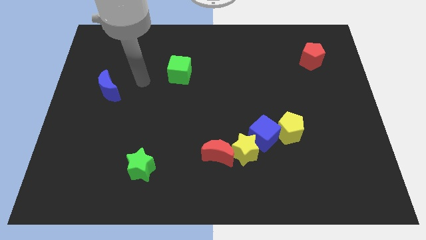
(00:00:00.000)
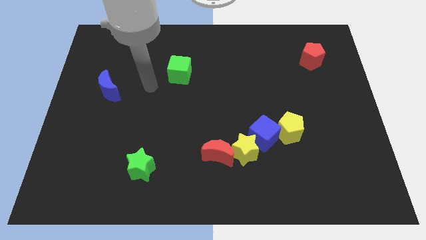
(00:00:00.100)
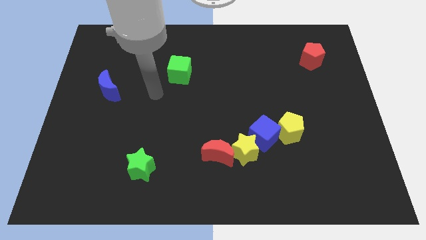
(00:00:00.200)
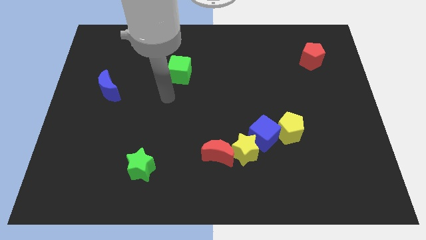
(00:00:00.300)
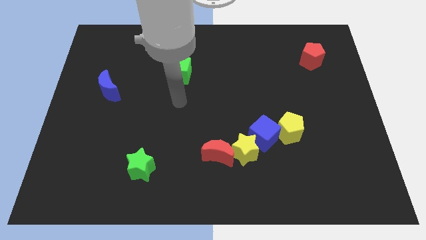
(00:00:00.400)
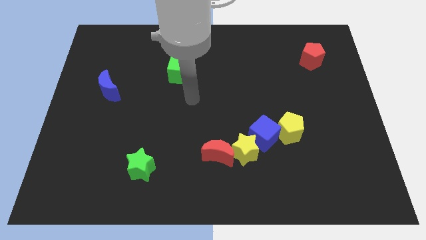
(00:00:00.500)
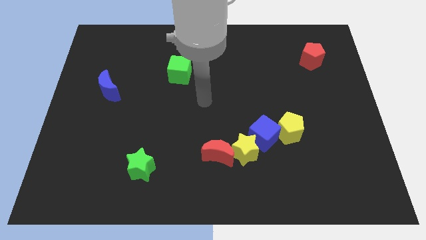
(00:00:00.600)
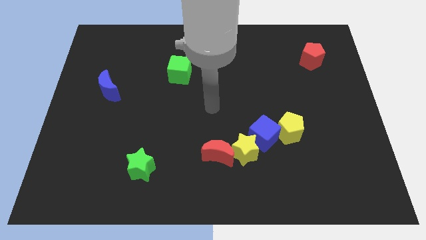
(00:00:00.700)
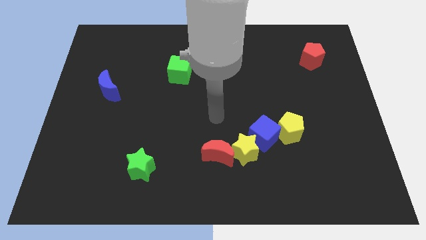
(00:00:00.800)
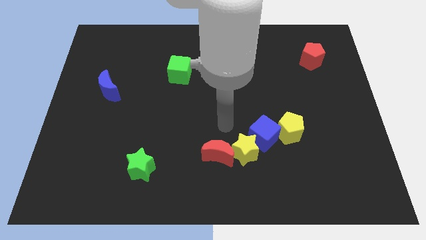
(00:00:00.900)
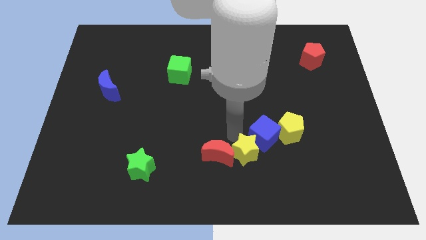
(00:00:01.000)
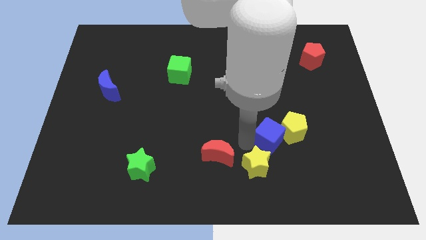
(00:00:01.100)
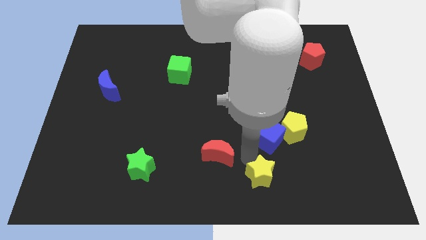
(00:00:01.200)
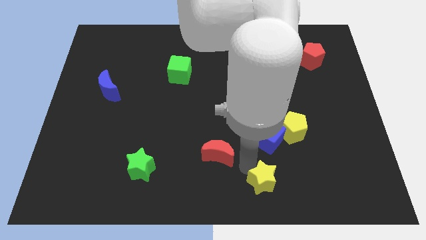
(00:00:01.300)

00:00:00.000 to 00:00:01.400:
move the red moon away from the yellow star

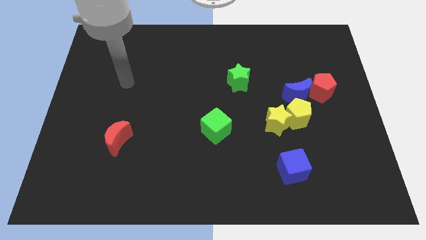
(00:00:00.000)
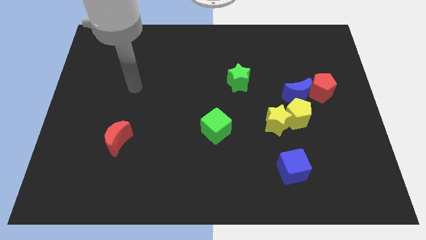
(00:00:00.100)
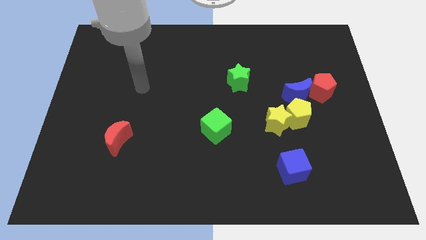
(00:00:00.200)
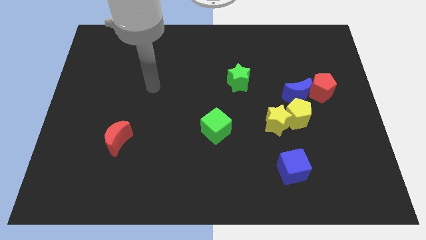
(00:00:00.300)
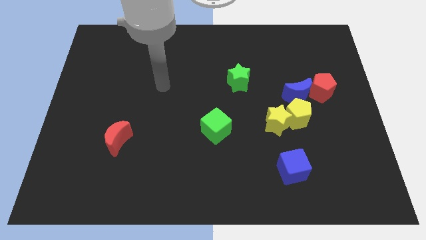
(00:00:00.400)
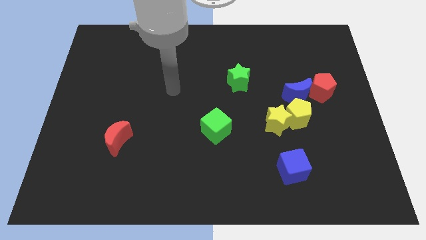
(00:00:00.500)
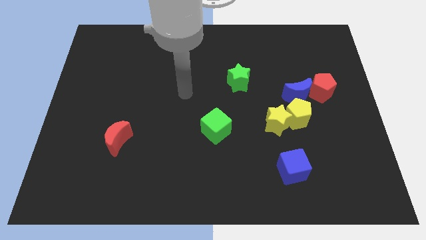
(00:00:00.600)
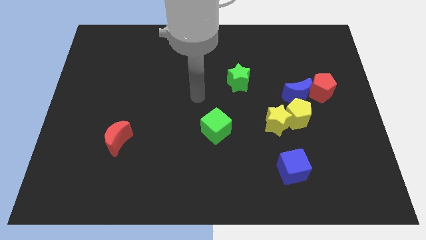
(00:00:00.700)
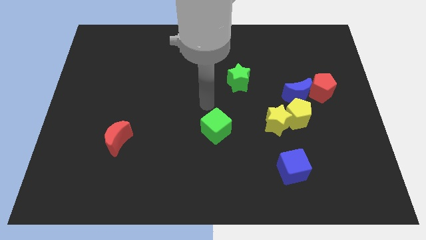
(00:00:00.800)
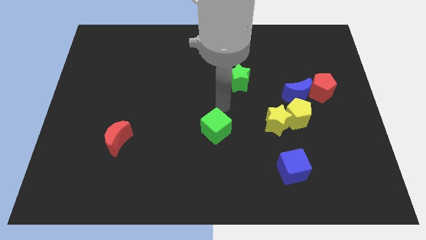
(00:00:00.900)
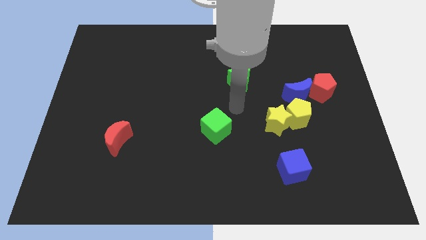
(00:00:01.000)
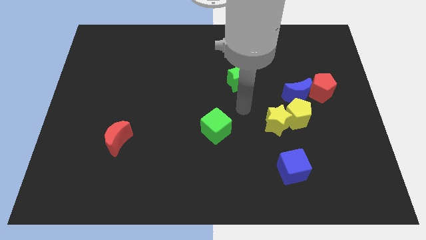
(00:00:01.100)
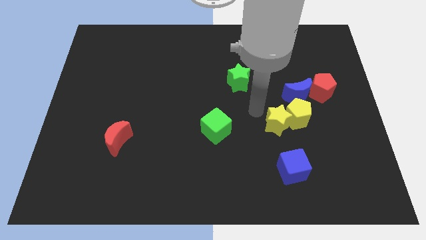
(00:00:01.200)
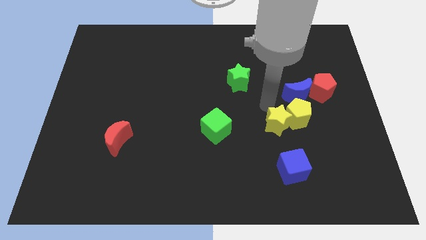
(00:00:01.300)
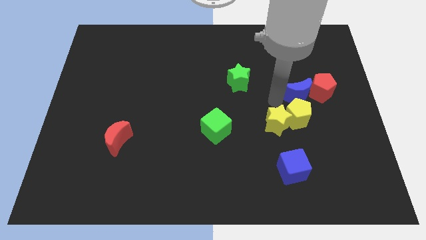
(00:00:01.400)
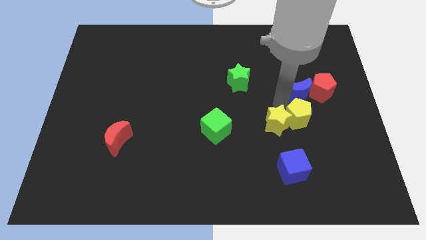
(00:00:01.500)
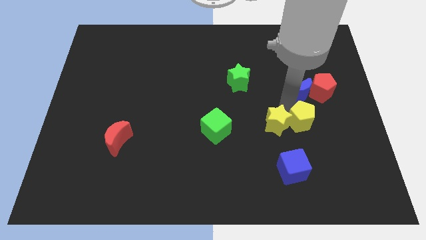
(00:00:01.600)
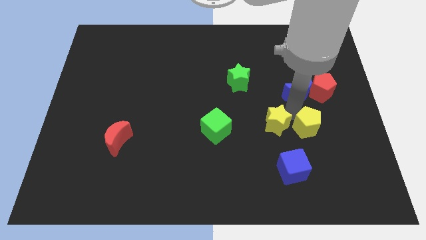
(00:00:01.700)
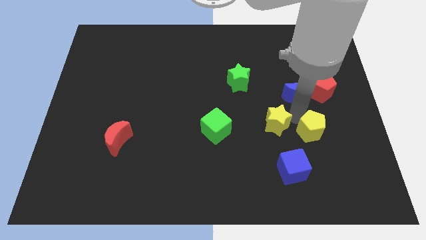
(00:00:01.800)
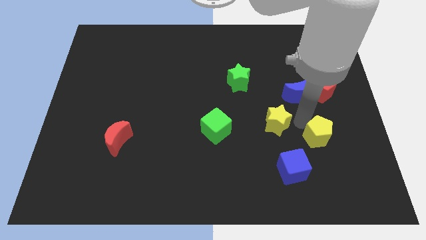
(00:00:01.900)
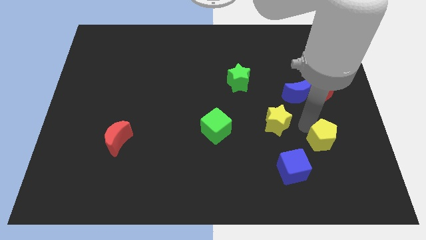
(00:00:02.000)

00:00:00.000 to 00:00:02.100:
pull the yellow pentagon apart from the yellow star and blue moon

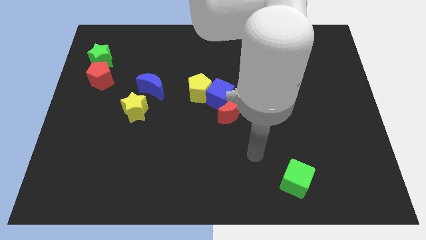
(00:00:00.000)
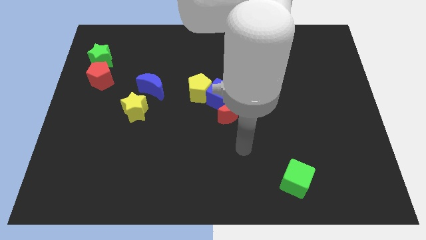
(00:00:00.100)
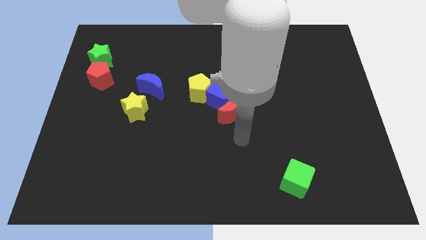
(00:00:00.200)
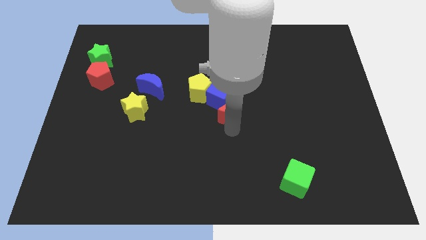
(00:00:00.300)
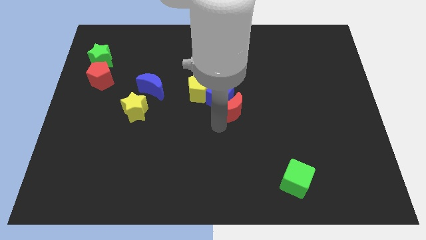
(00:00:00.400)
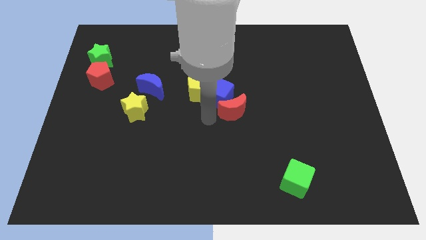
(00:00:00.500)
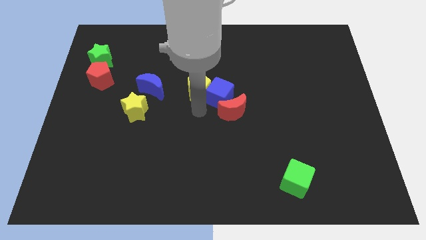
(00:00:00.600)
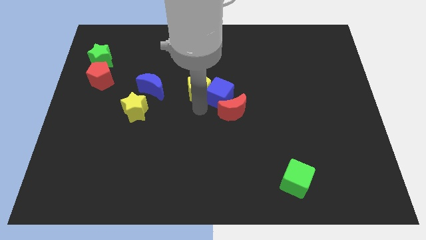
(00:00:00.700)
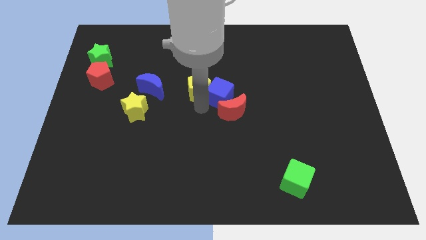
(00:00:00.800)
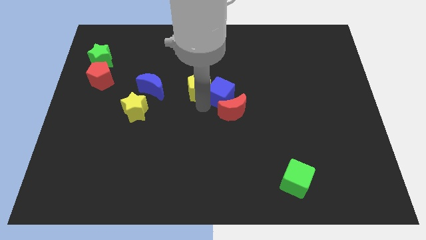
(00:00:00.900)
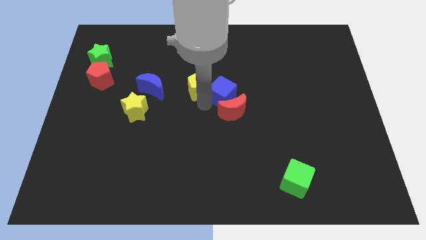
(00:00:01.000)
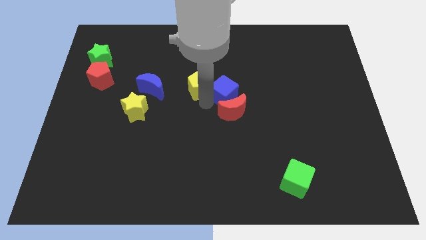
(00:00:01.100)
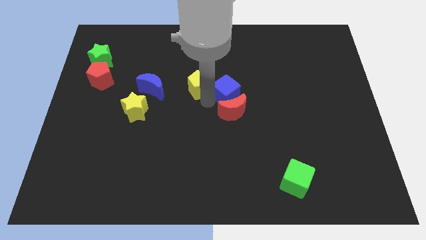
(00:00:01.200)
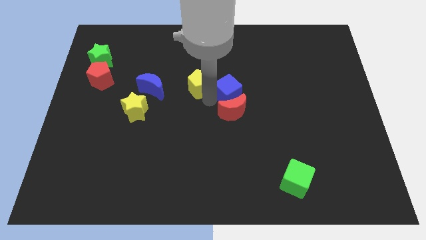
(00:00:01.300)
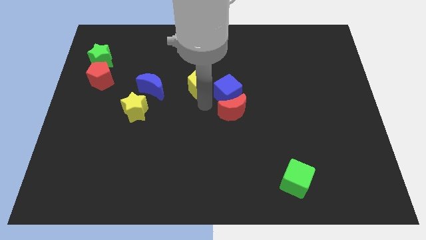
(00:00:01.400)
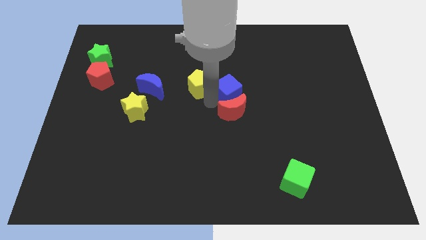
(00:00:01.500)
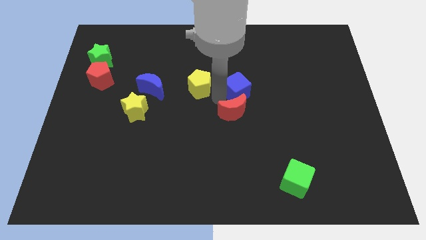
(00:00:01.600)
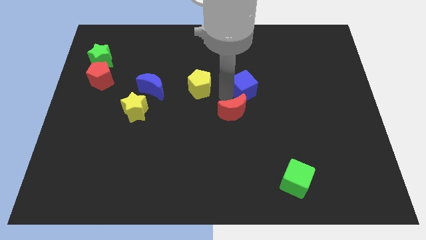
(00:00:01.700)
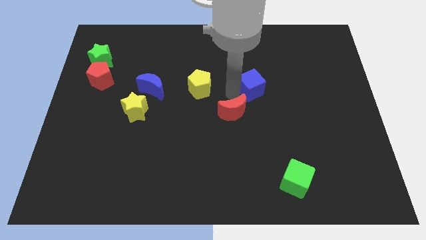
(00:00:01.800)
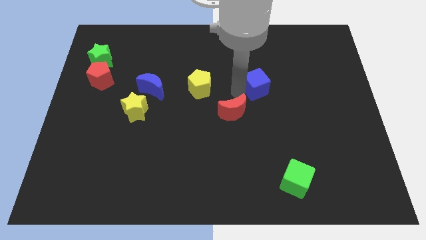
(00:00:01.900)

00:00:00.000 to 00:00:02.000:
move the blue cube away from the red moon and yellow pentagon

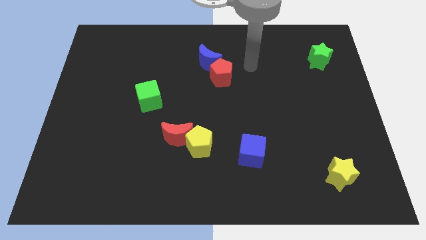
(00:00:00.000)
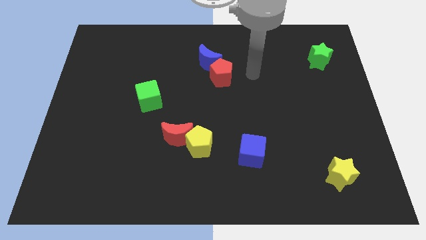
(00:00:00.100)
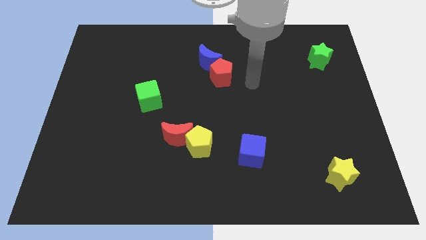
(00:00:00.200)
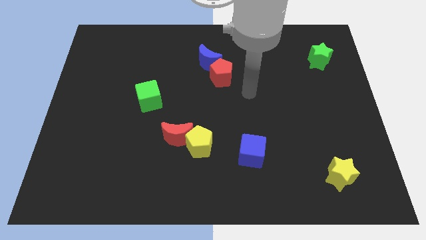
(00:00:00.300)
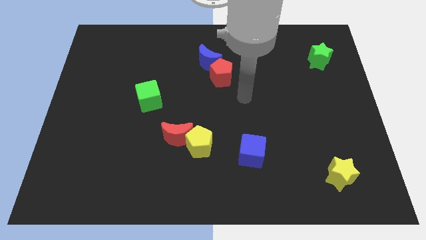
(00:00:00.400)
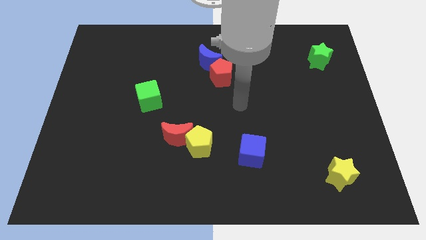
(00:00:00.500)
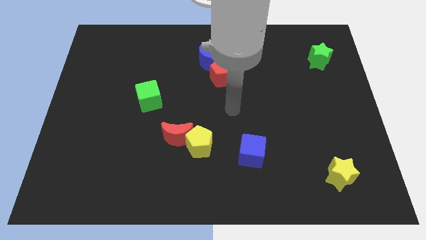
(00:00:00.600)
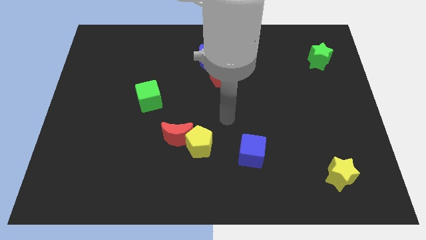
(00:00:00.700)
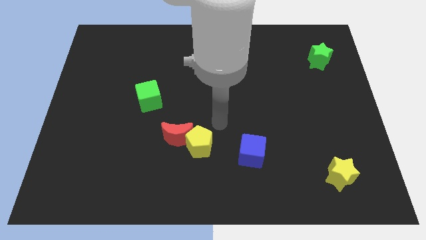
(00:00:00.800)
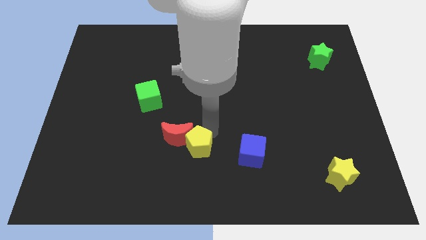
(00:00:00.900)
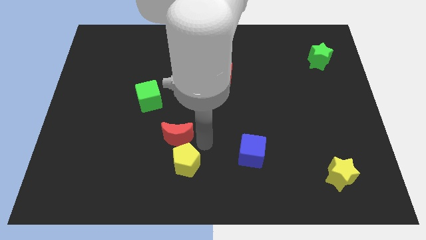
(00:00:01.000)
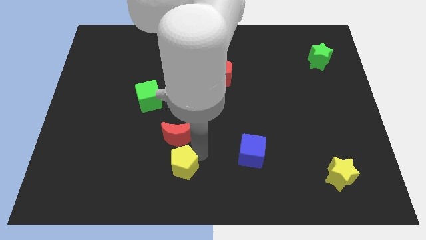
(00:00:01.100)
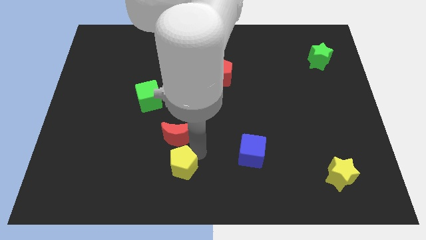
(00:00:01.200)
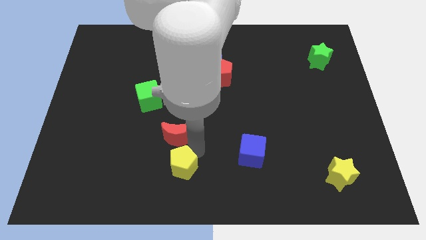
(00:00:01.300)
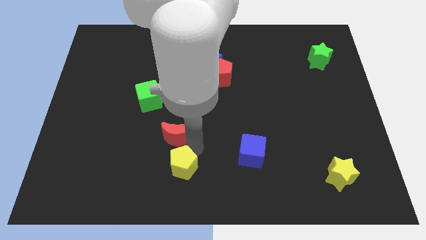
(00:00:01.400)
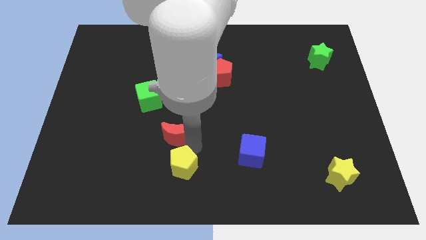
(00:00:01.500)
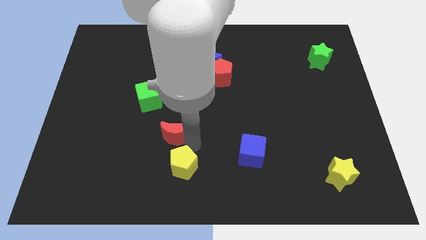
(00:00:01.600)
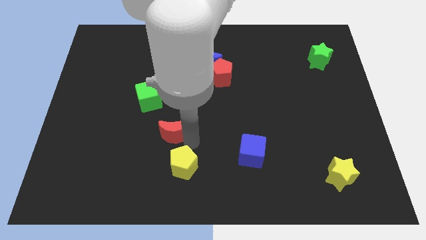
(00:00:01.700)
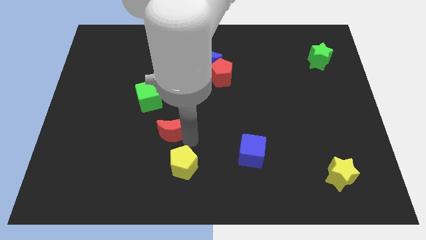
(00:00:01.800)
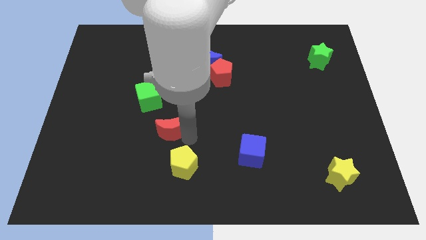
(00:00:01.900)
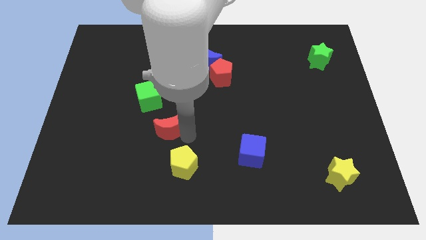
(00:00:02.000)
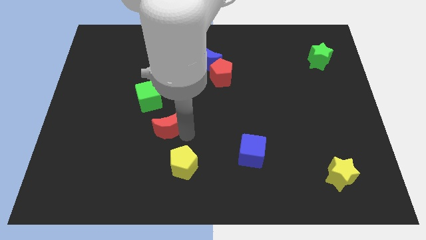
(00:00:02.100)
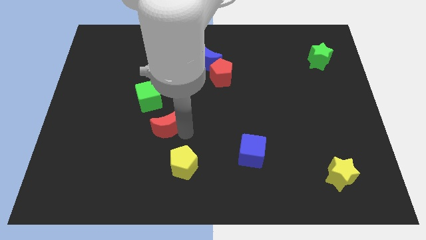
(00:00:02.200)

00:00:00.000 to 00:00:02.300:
move the red moon away from the yellow pentagon

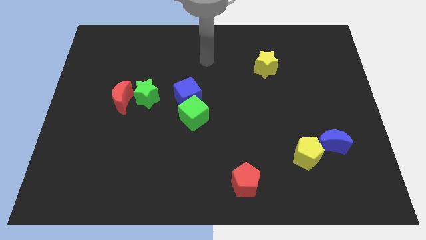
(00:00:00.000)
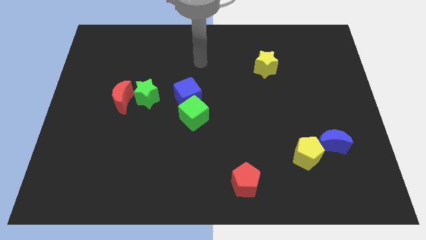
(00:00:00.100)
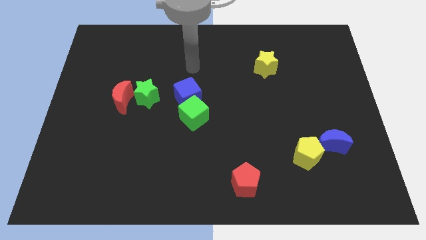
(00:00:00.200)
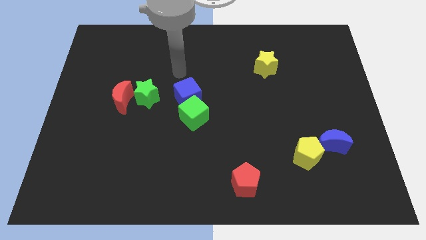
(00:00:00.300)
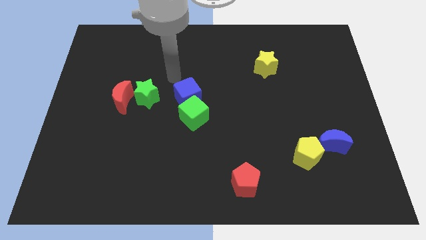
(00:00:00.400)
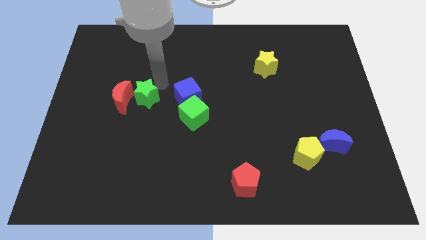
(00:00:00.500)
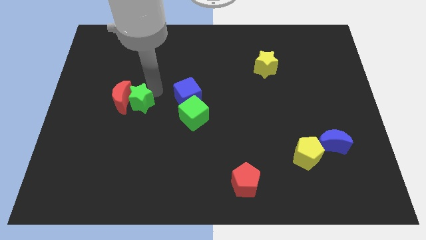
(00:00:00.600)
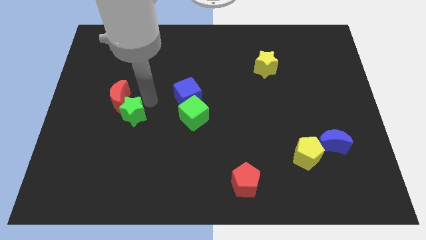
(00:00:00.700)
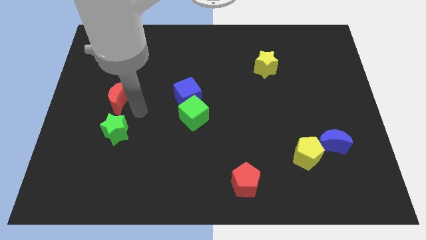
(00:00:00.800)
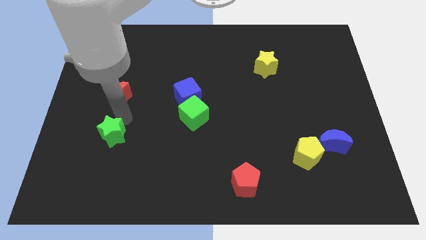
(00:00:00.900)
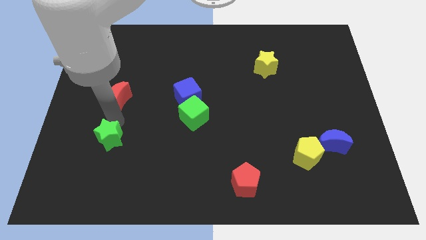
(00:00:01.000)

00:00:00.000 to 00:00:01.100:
separate the red moon from the green star

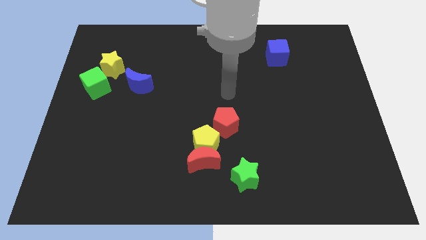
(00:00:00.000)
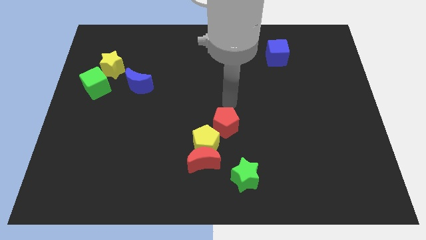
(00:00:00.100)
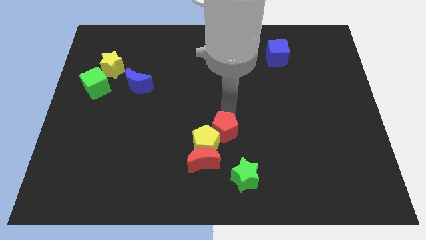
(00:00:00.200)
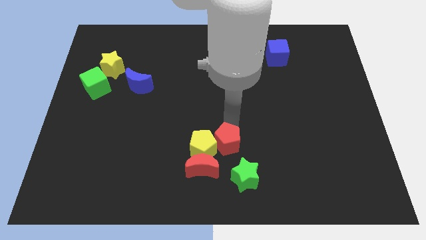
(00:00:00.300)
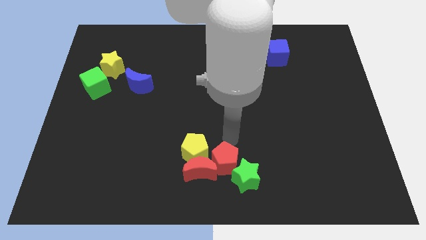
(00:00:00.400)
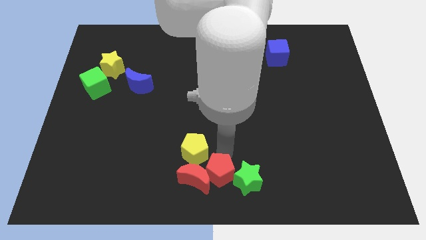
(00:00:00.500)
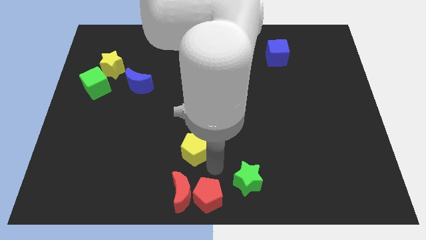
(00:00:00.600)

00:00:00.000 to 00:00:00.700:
separate the yellow pentagon from the red moon and red pentagon
